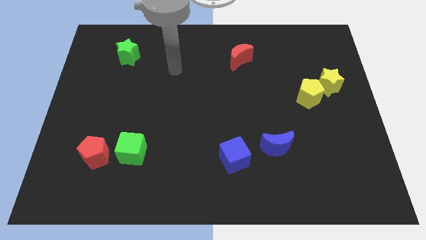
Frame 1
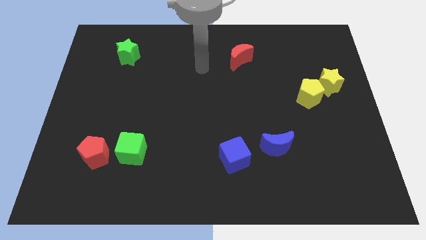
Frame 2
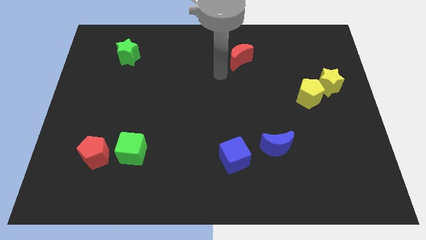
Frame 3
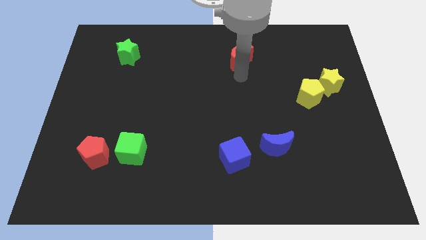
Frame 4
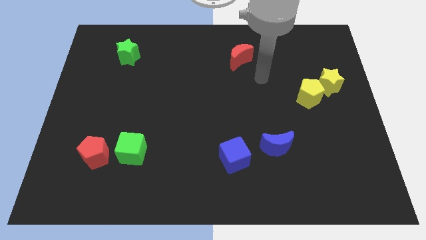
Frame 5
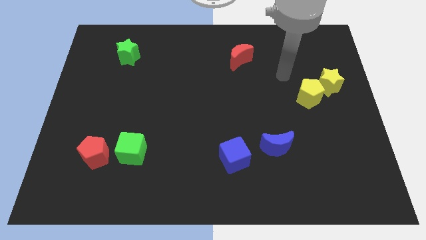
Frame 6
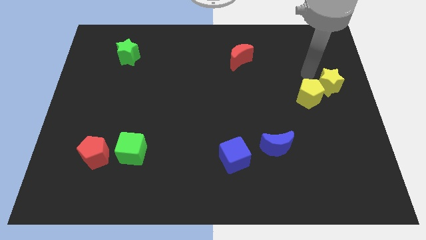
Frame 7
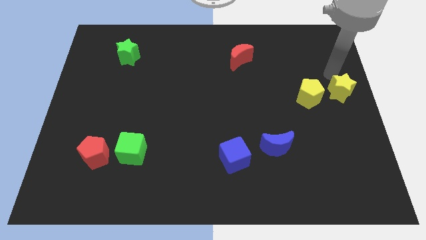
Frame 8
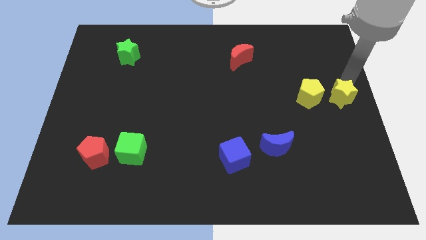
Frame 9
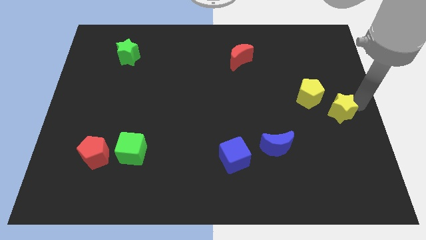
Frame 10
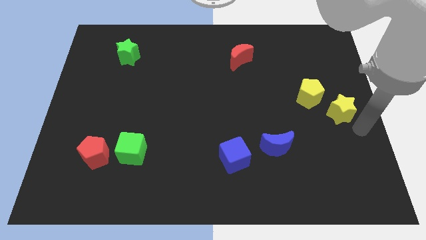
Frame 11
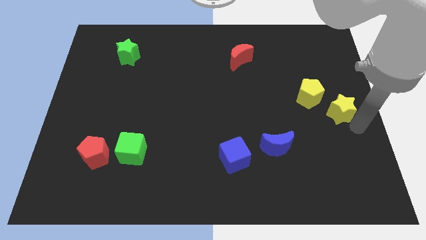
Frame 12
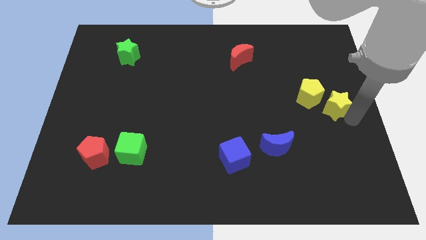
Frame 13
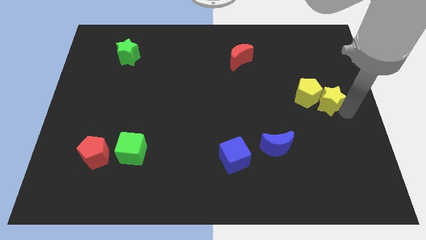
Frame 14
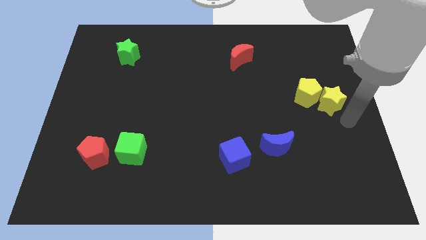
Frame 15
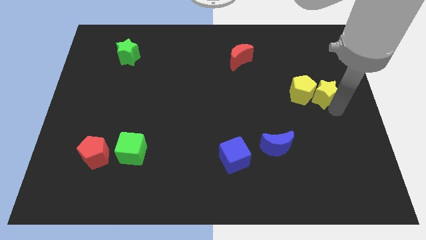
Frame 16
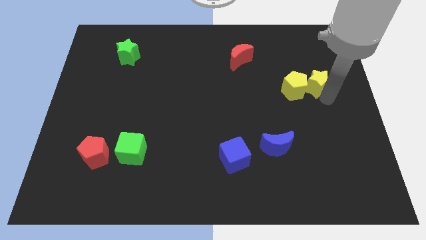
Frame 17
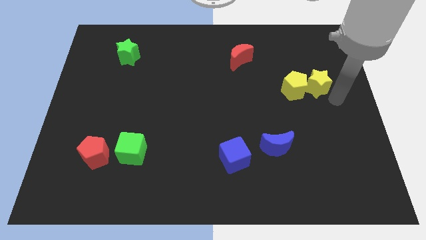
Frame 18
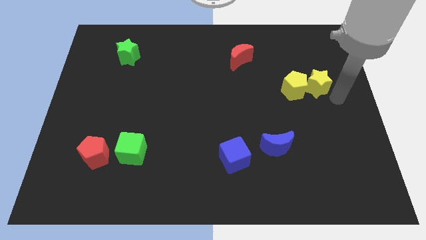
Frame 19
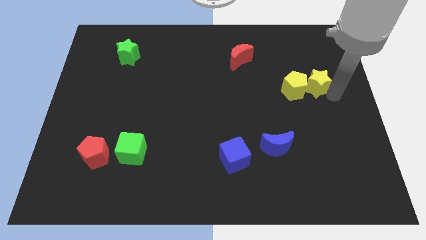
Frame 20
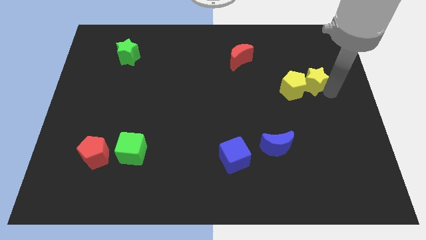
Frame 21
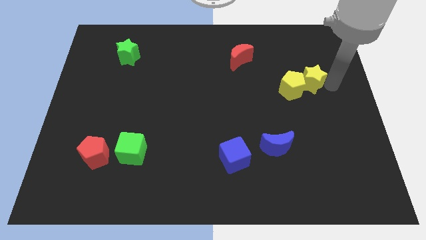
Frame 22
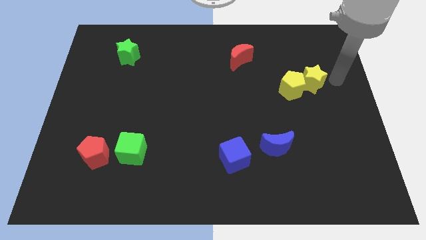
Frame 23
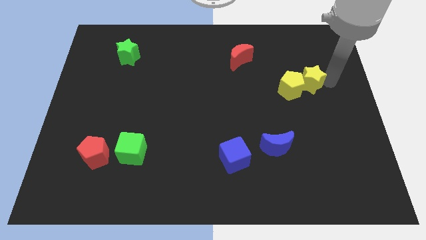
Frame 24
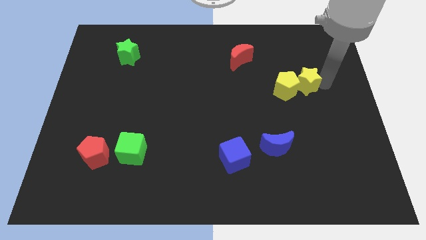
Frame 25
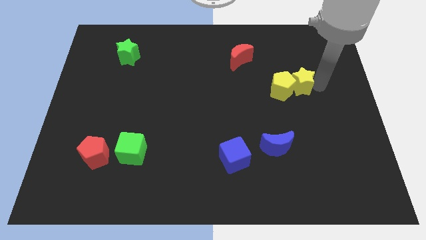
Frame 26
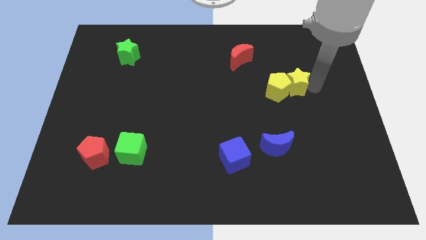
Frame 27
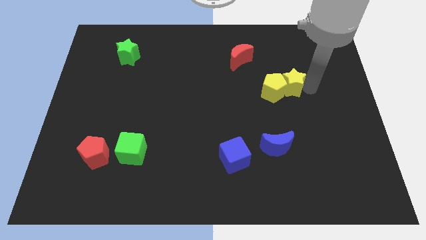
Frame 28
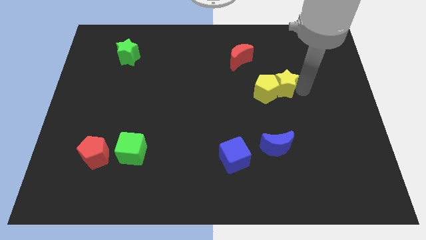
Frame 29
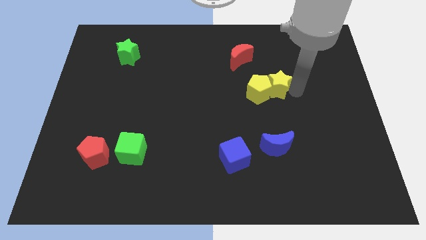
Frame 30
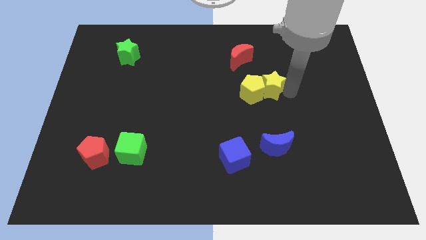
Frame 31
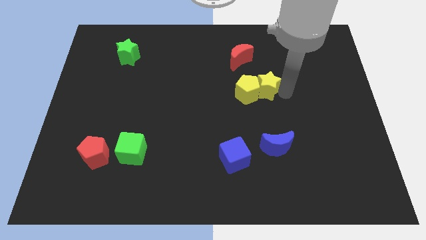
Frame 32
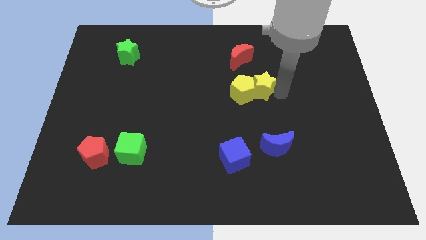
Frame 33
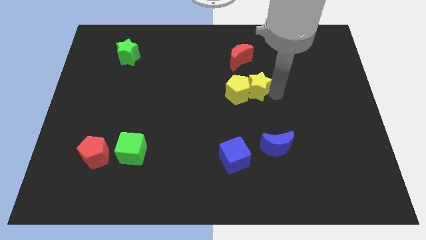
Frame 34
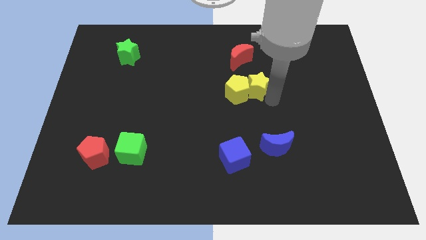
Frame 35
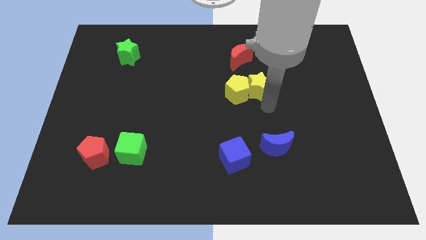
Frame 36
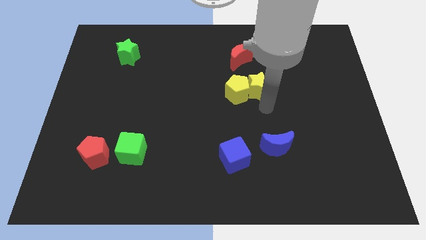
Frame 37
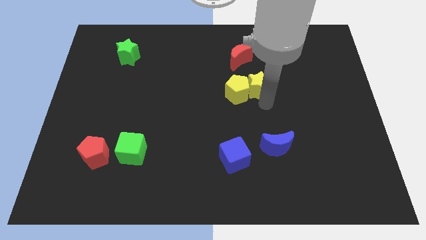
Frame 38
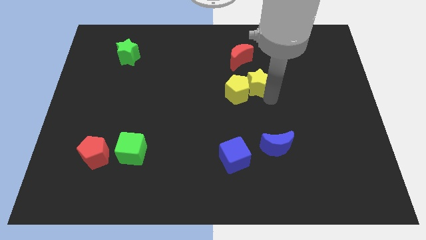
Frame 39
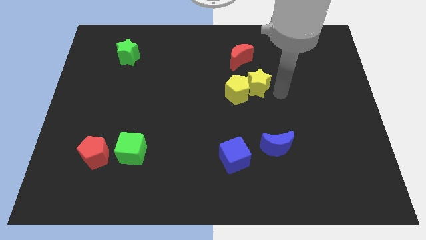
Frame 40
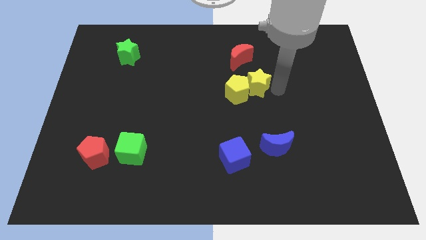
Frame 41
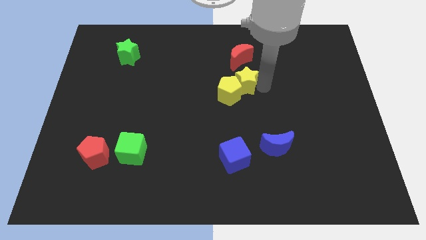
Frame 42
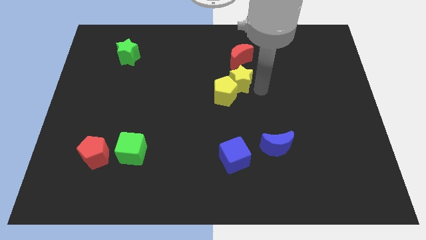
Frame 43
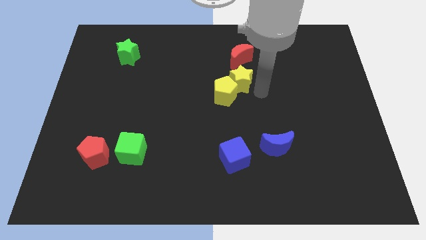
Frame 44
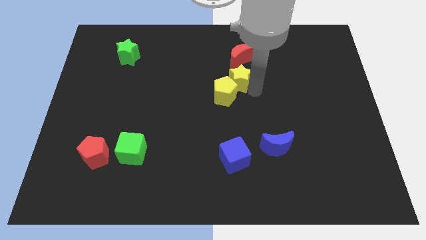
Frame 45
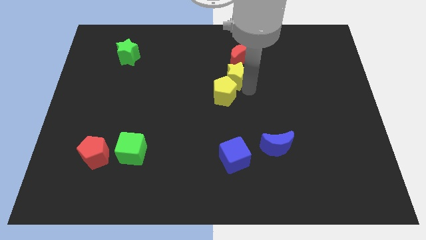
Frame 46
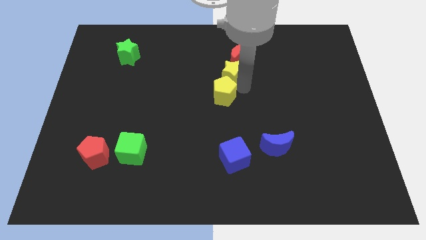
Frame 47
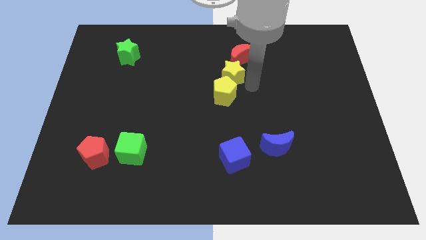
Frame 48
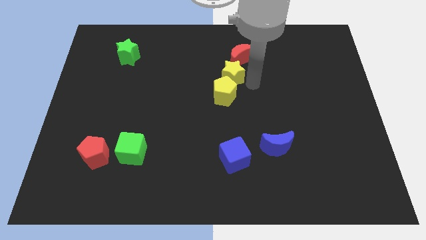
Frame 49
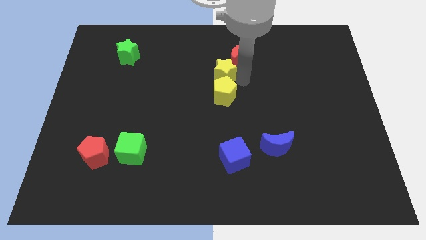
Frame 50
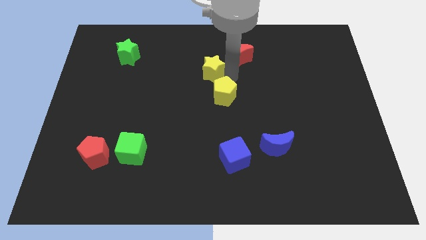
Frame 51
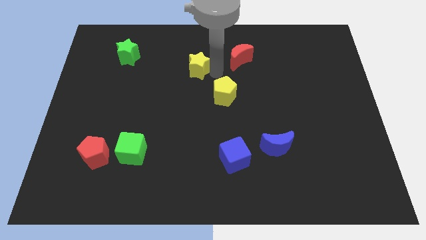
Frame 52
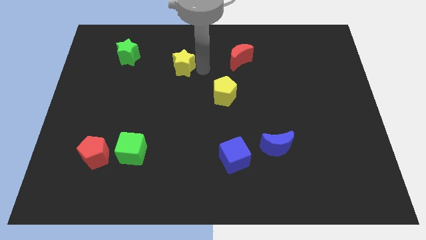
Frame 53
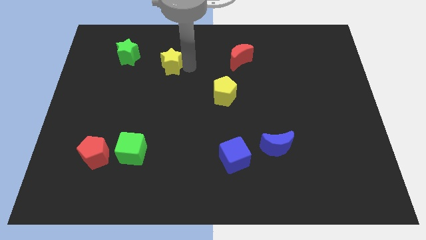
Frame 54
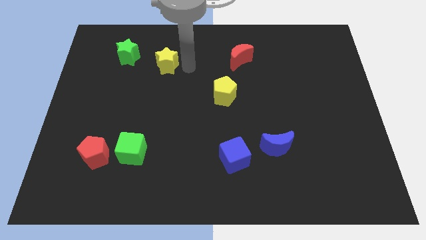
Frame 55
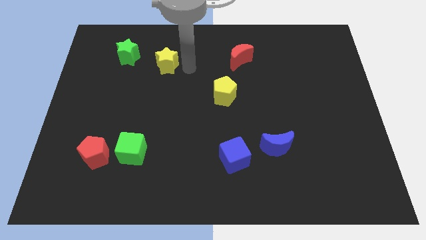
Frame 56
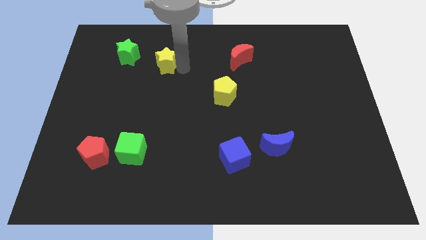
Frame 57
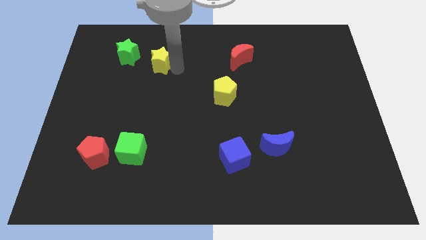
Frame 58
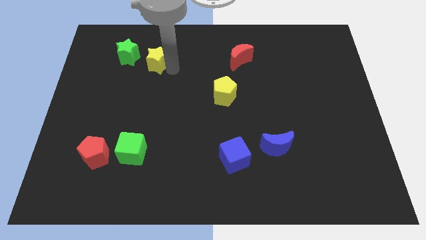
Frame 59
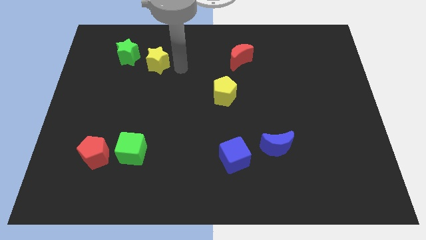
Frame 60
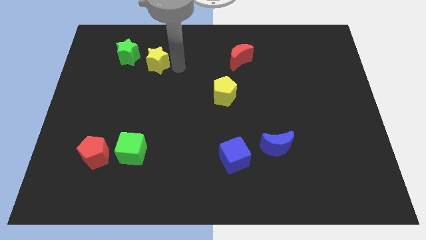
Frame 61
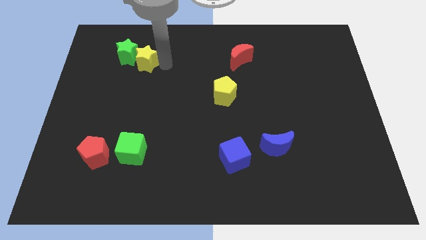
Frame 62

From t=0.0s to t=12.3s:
move the yellow star towards the green star
